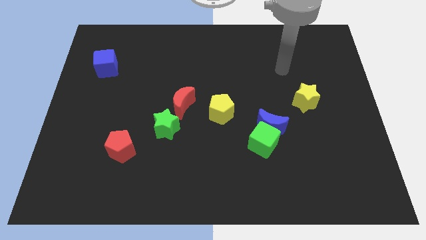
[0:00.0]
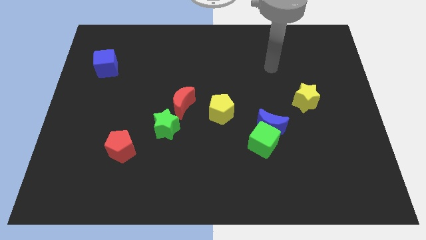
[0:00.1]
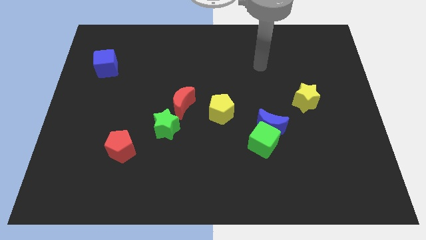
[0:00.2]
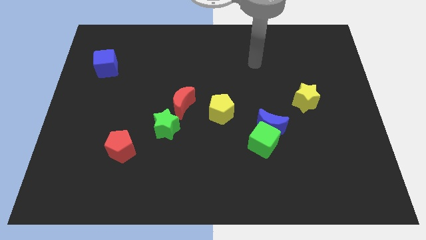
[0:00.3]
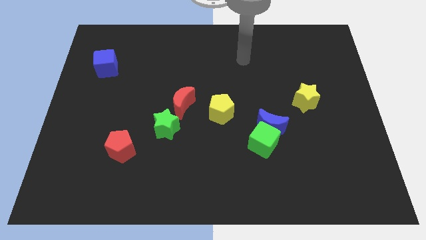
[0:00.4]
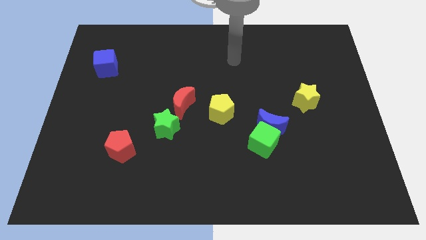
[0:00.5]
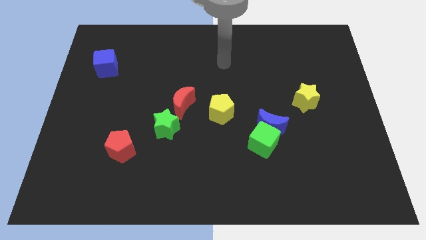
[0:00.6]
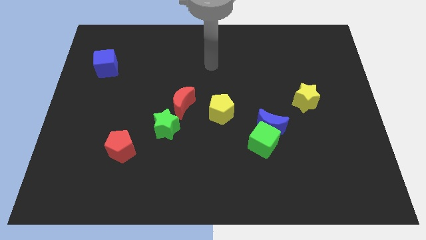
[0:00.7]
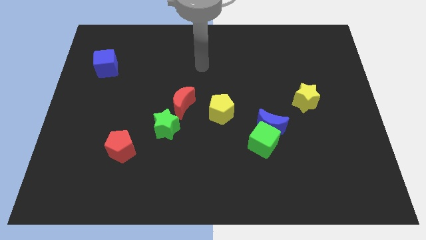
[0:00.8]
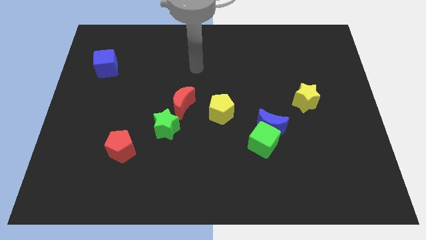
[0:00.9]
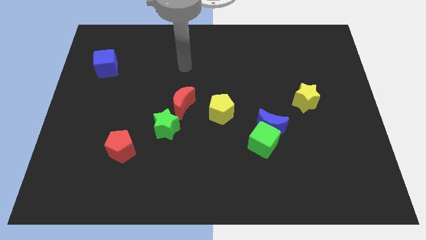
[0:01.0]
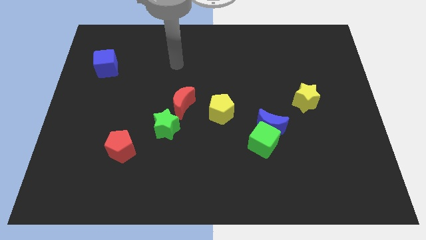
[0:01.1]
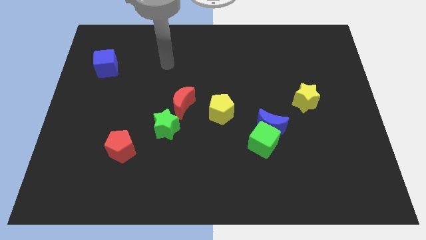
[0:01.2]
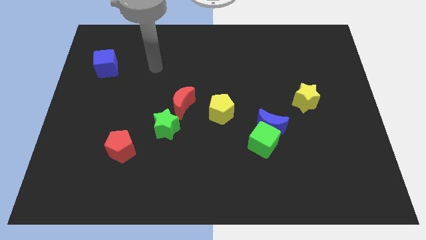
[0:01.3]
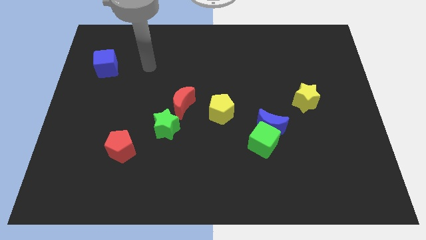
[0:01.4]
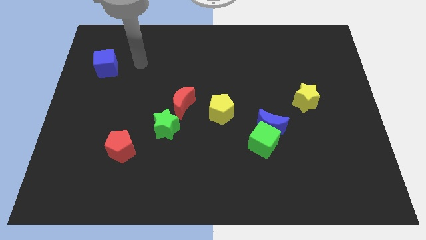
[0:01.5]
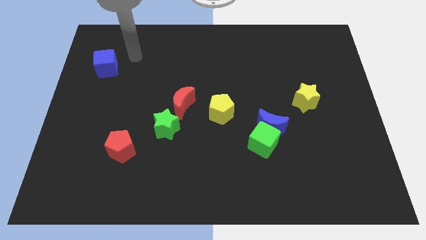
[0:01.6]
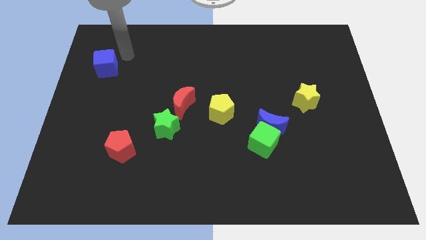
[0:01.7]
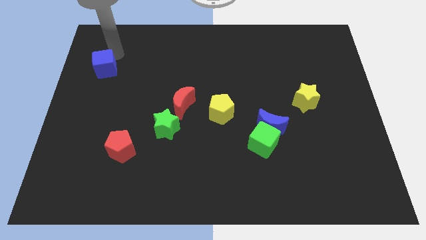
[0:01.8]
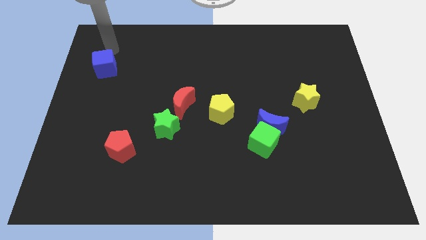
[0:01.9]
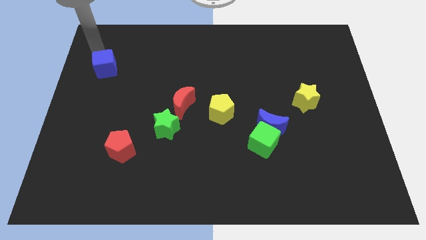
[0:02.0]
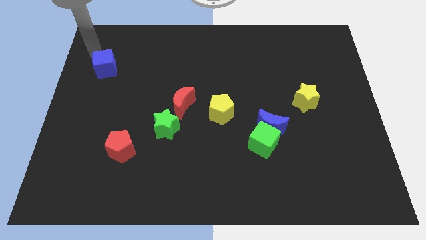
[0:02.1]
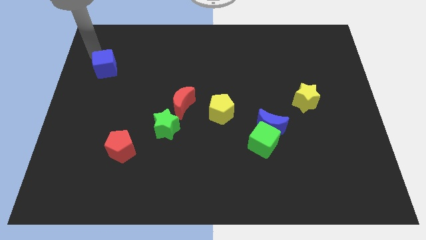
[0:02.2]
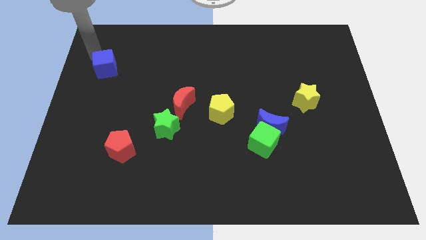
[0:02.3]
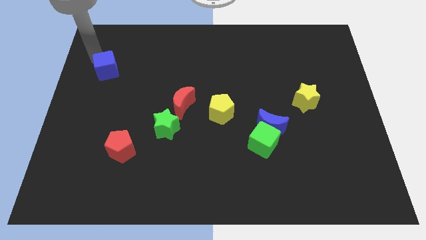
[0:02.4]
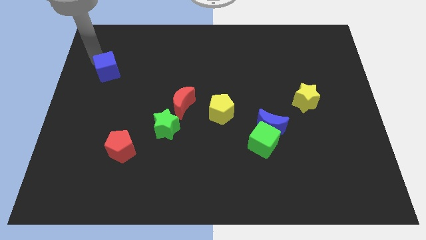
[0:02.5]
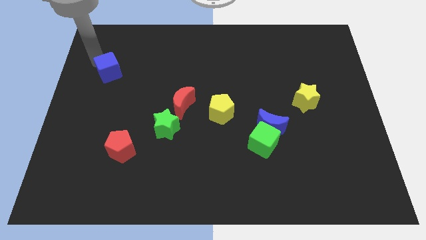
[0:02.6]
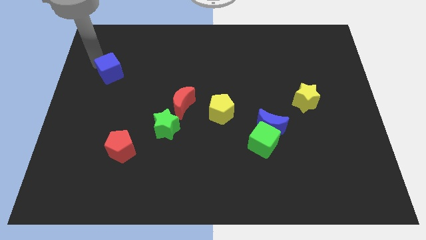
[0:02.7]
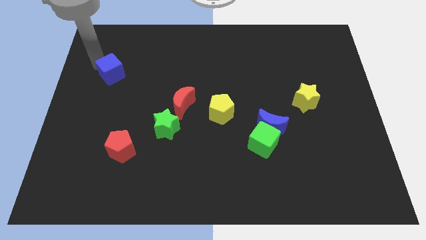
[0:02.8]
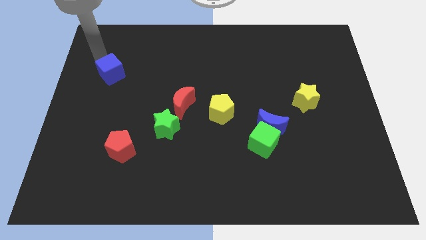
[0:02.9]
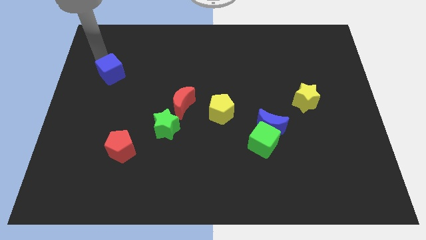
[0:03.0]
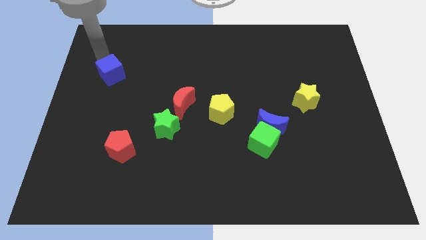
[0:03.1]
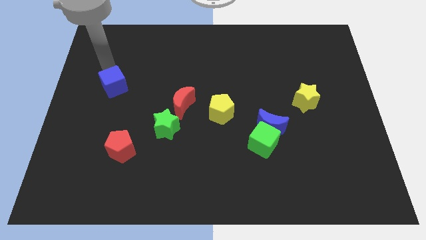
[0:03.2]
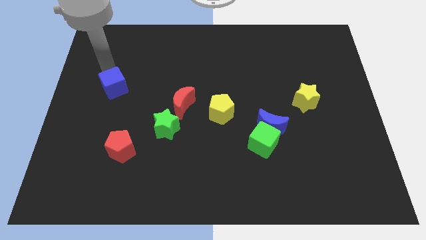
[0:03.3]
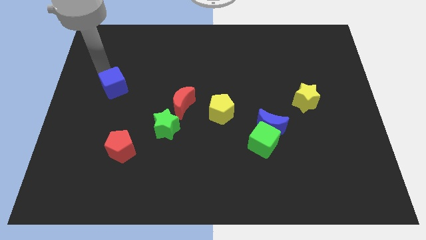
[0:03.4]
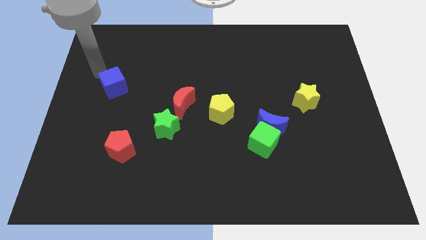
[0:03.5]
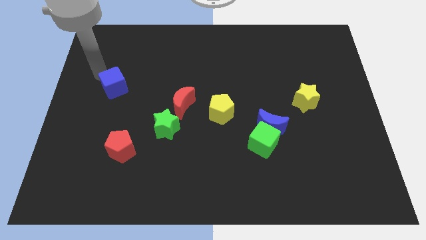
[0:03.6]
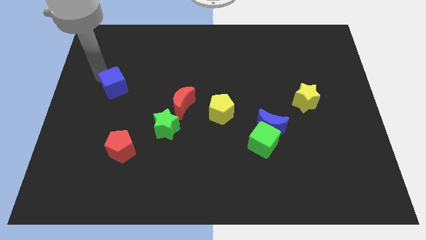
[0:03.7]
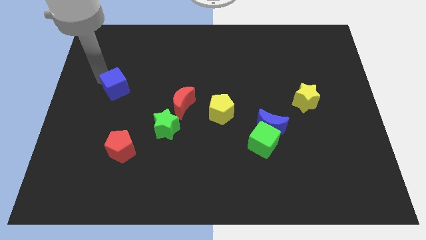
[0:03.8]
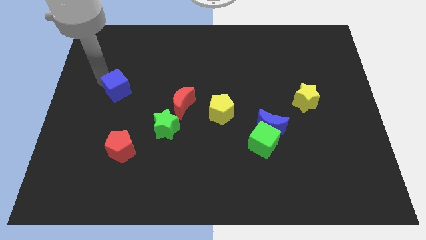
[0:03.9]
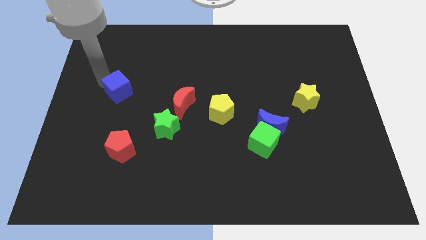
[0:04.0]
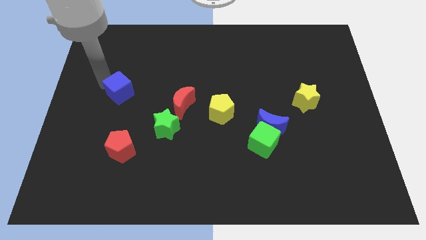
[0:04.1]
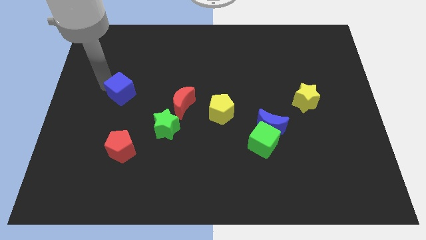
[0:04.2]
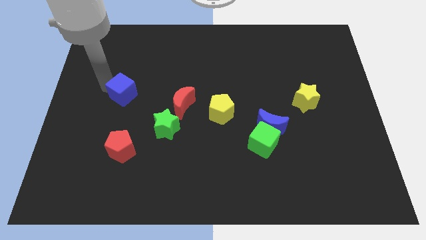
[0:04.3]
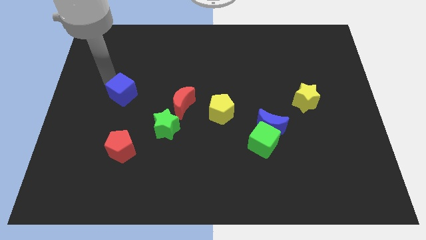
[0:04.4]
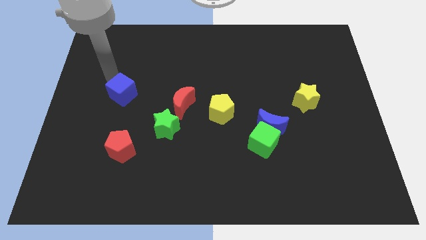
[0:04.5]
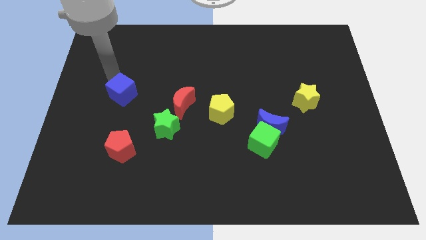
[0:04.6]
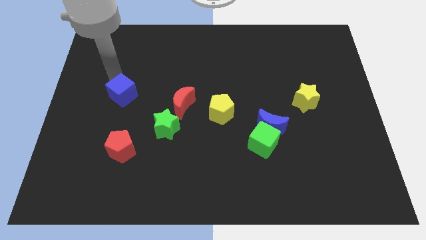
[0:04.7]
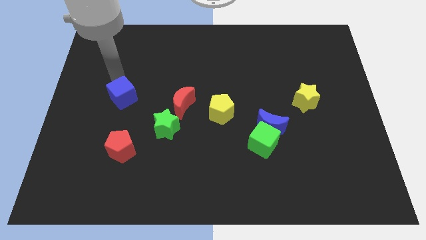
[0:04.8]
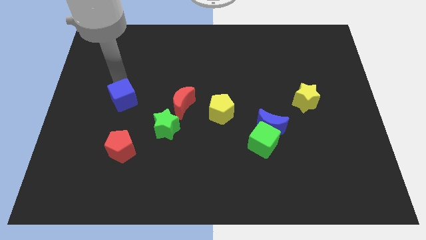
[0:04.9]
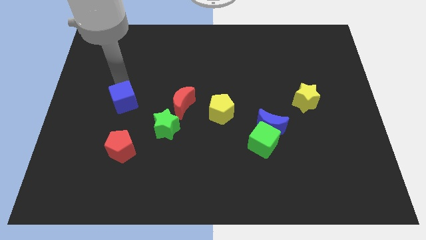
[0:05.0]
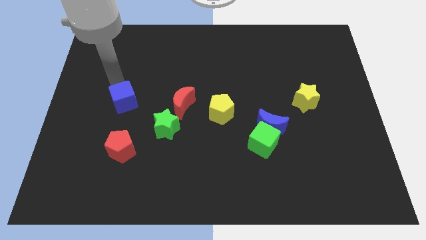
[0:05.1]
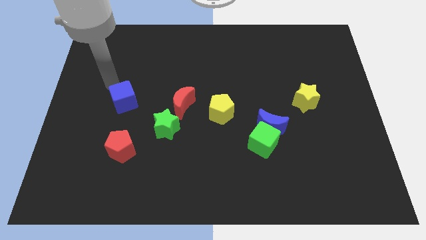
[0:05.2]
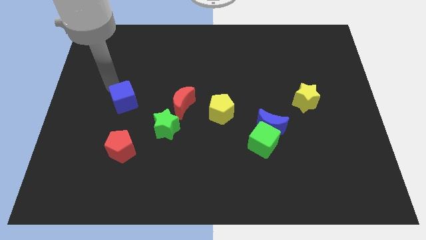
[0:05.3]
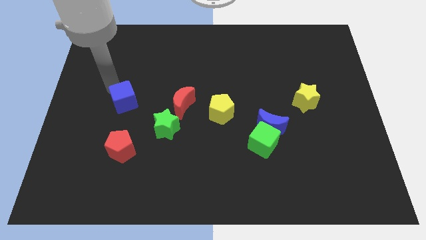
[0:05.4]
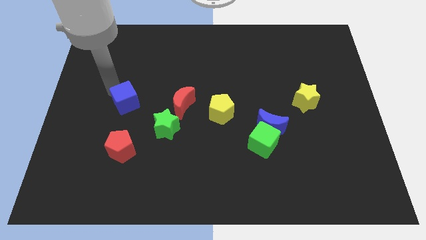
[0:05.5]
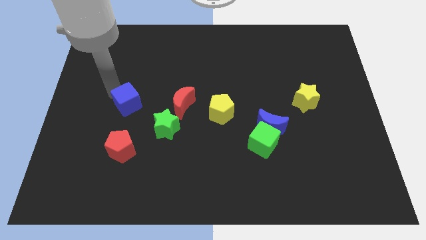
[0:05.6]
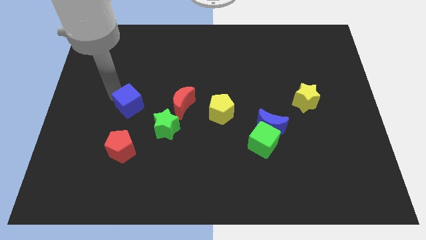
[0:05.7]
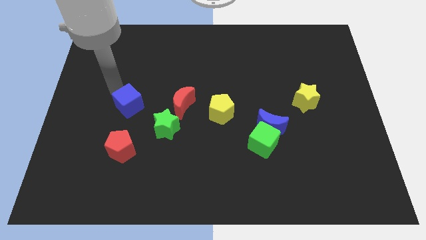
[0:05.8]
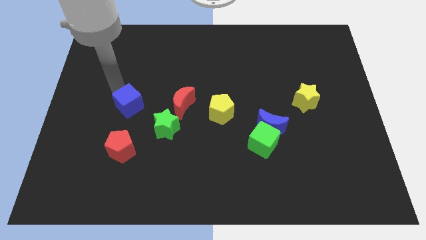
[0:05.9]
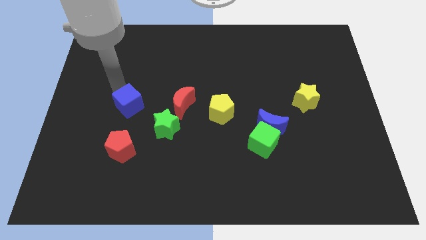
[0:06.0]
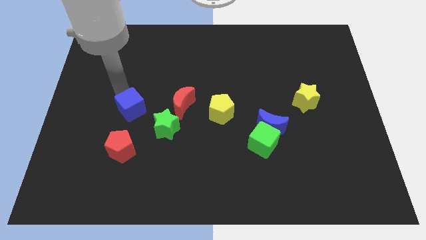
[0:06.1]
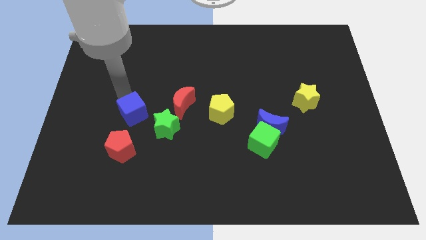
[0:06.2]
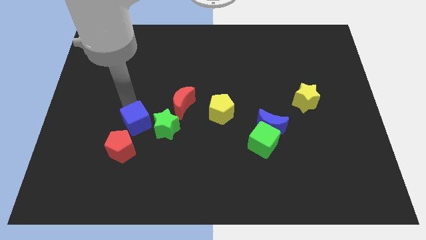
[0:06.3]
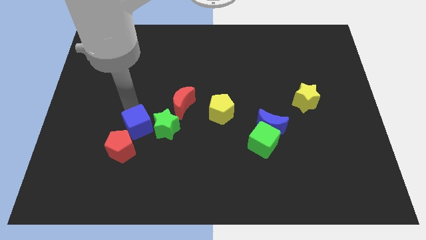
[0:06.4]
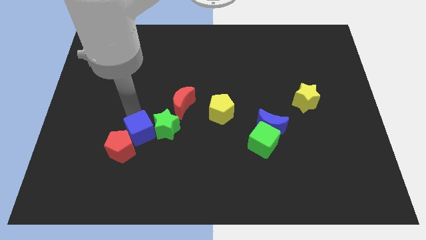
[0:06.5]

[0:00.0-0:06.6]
move the blue cube downwards and right

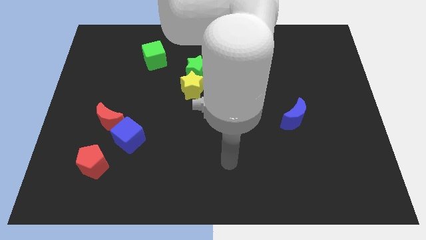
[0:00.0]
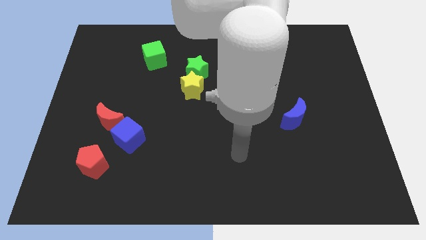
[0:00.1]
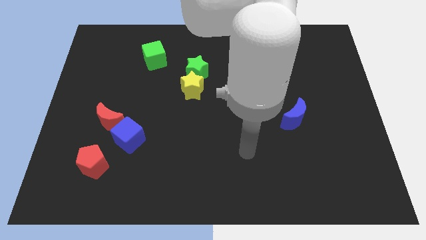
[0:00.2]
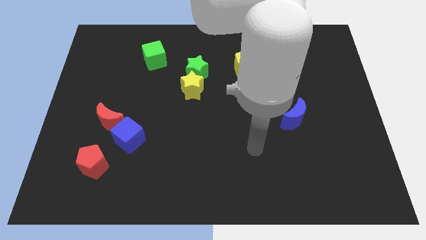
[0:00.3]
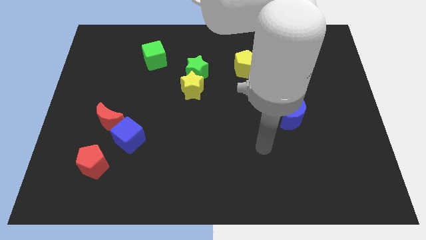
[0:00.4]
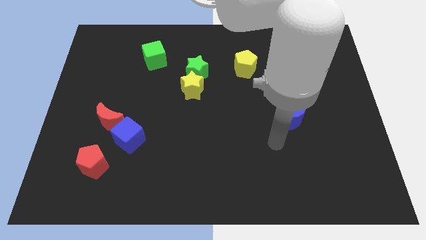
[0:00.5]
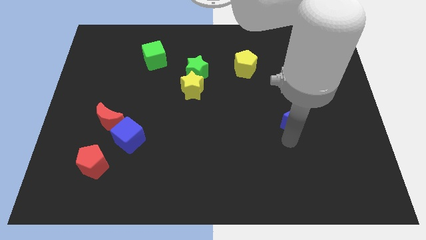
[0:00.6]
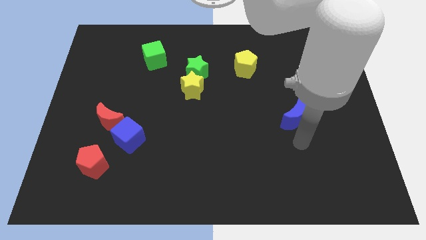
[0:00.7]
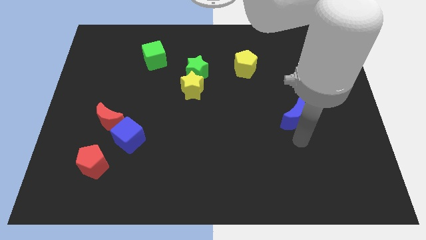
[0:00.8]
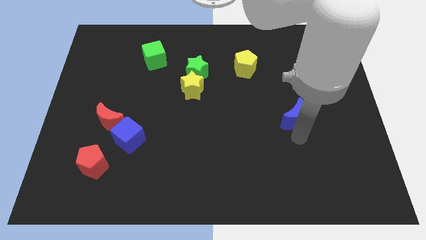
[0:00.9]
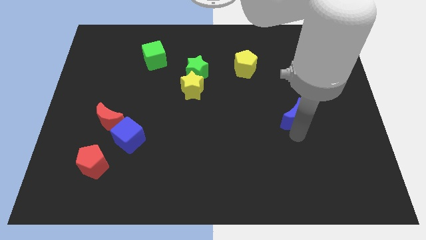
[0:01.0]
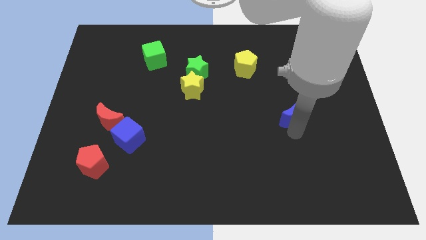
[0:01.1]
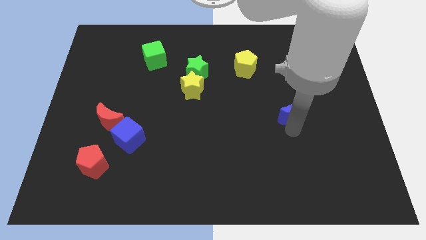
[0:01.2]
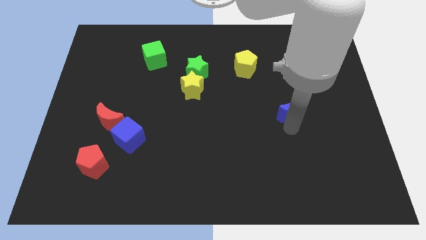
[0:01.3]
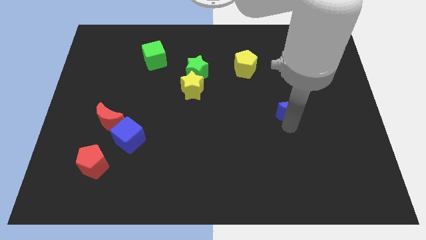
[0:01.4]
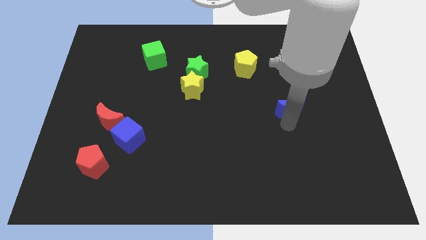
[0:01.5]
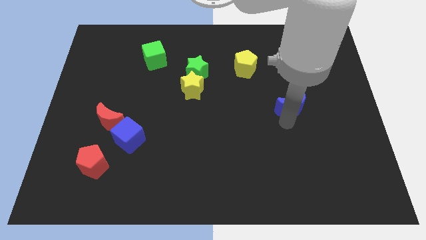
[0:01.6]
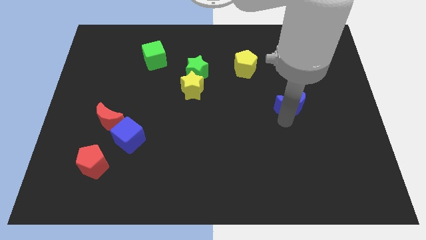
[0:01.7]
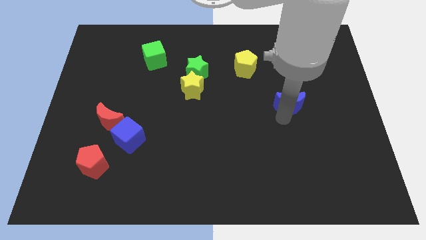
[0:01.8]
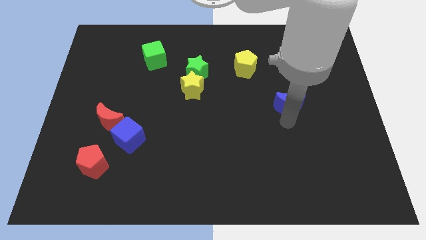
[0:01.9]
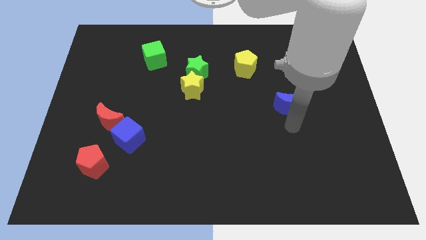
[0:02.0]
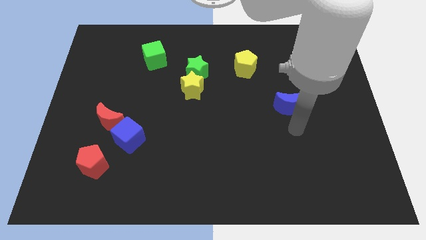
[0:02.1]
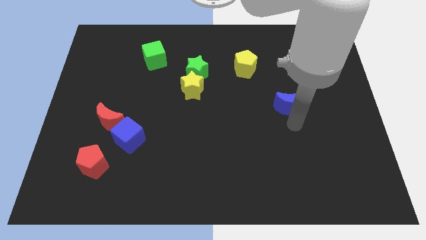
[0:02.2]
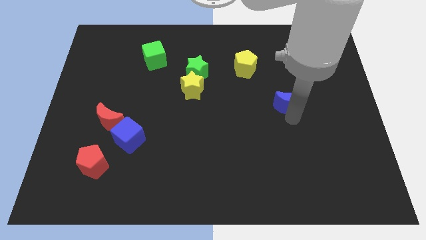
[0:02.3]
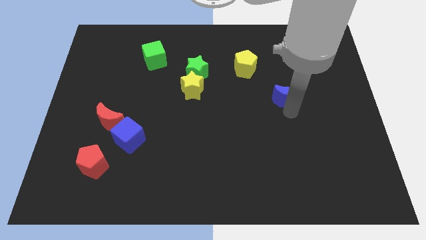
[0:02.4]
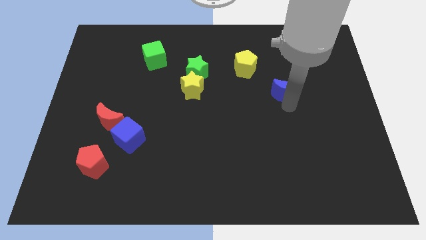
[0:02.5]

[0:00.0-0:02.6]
slightly move the blue moon upwards
